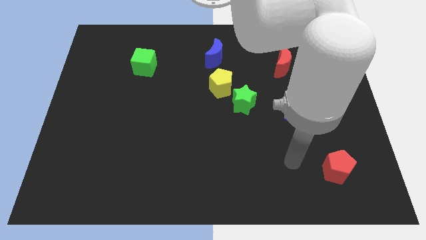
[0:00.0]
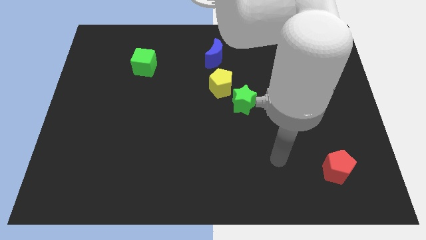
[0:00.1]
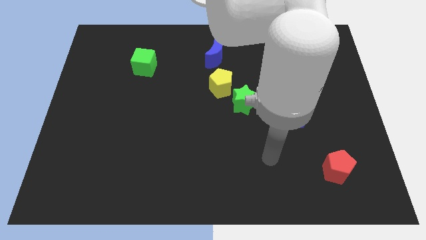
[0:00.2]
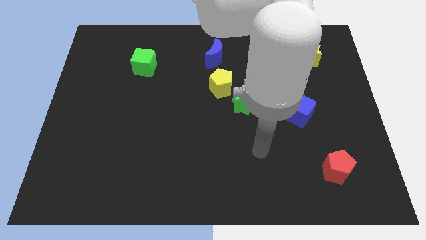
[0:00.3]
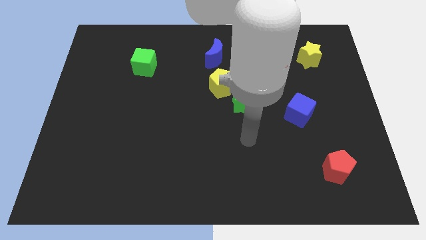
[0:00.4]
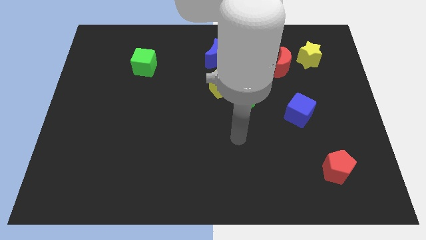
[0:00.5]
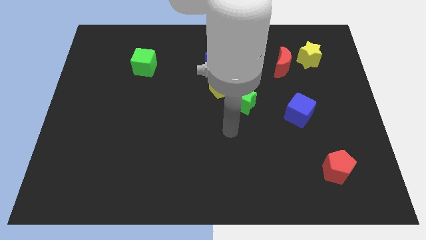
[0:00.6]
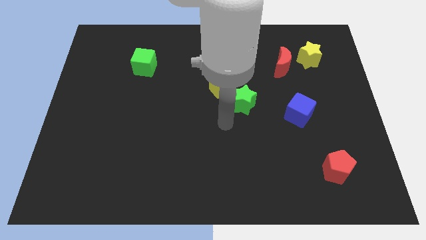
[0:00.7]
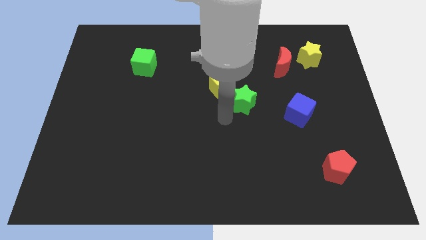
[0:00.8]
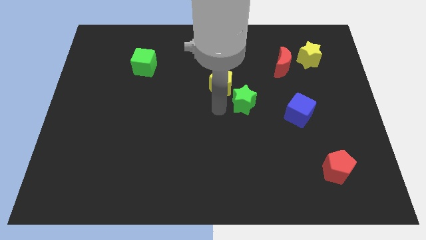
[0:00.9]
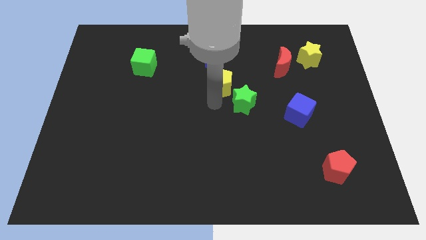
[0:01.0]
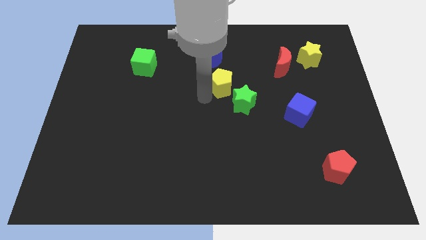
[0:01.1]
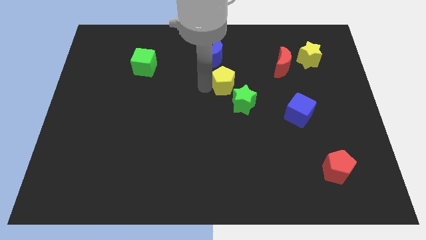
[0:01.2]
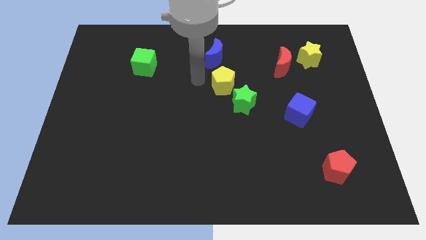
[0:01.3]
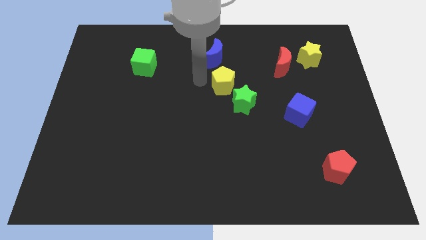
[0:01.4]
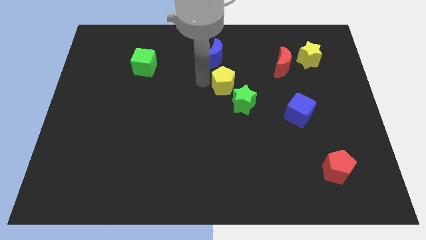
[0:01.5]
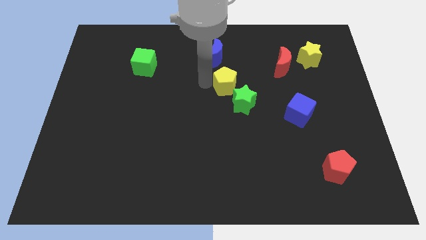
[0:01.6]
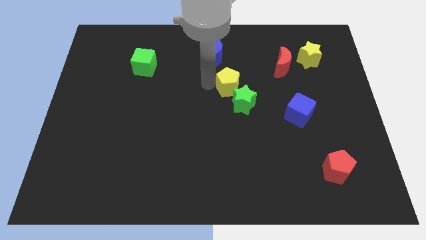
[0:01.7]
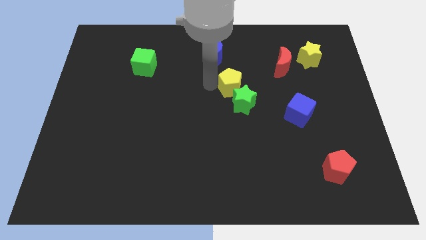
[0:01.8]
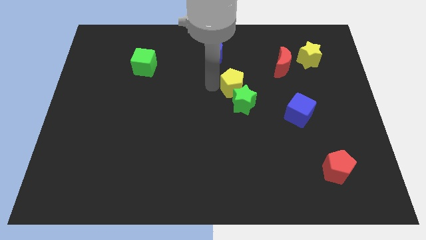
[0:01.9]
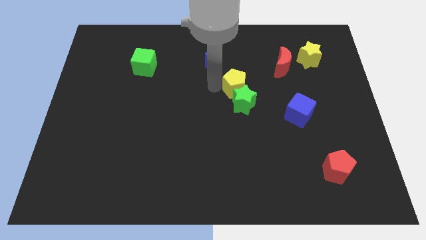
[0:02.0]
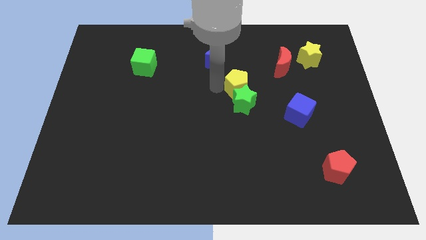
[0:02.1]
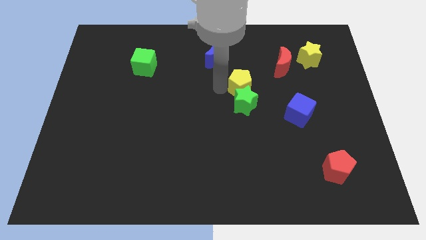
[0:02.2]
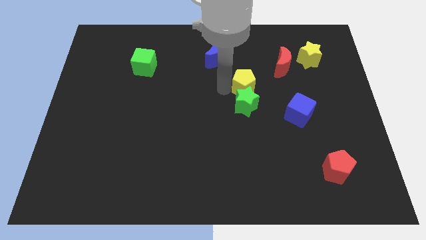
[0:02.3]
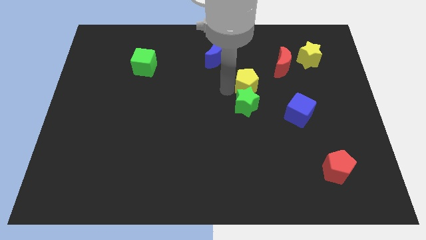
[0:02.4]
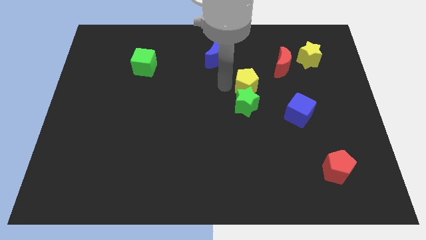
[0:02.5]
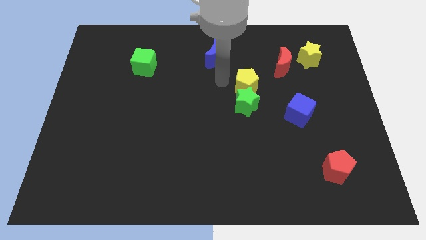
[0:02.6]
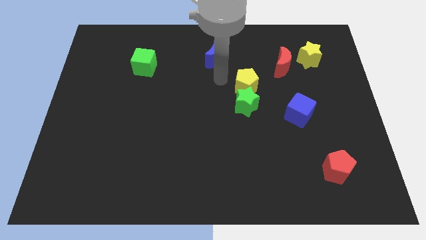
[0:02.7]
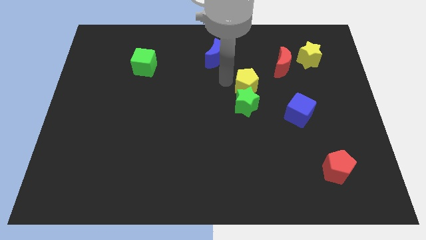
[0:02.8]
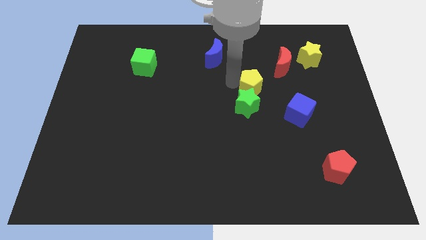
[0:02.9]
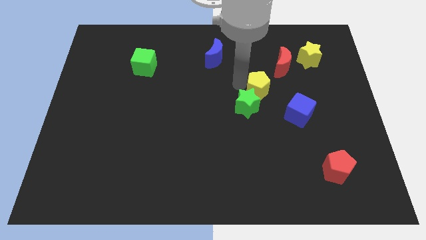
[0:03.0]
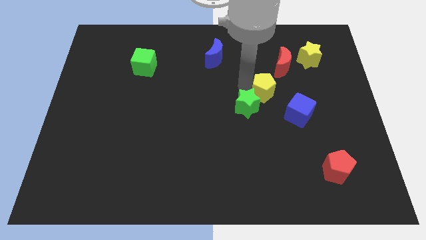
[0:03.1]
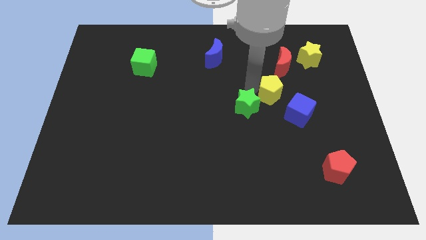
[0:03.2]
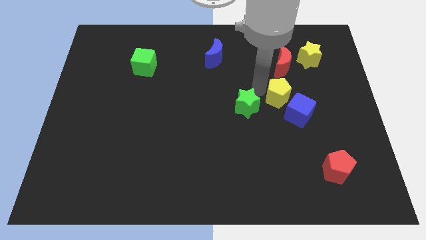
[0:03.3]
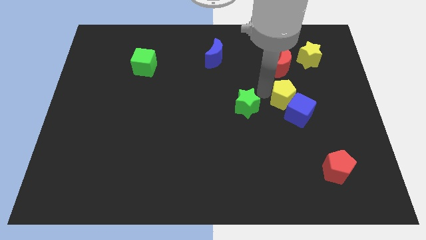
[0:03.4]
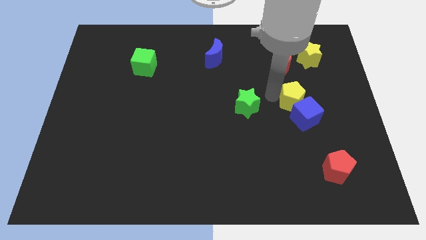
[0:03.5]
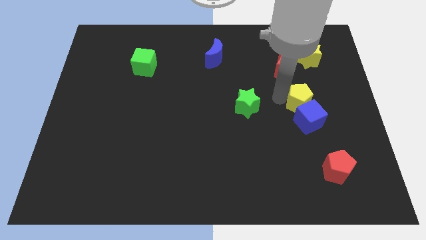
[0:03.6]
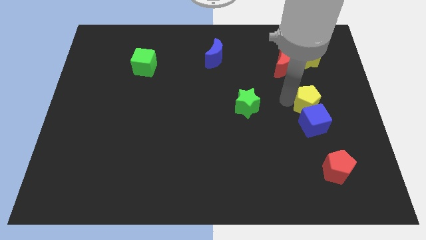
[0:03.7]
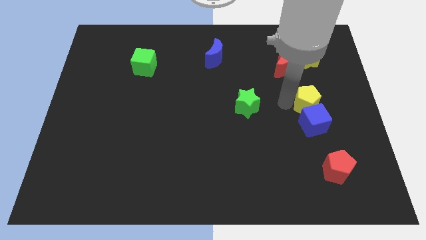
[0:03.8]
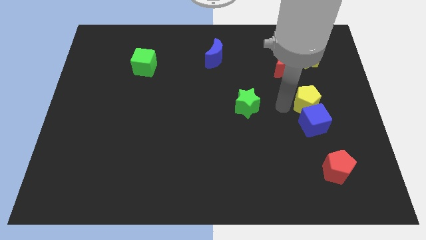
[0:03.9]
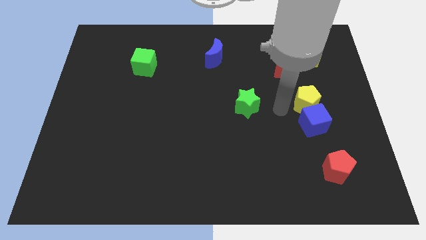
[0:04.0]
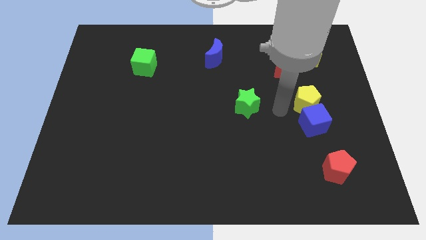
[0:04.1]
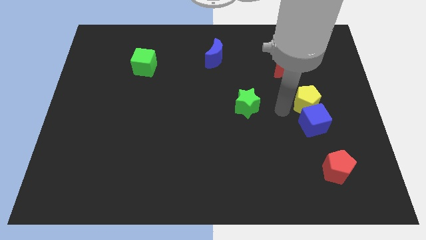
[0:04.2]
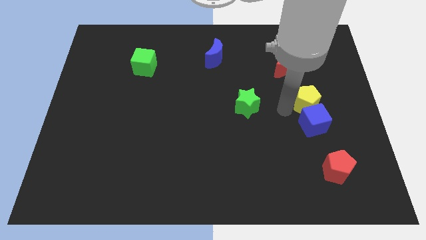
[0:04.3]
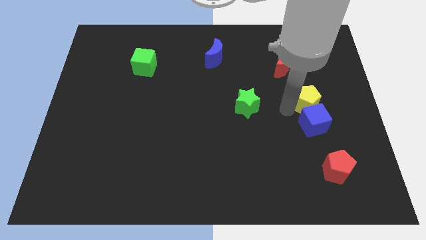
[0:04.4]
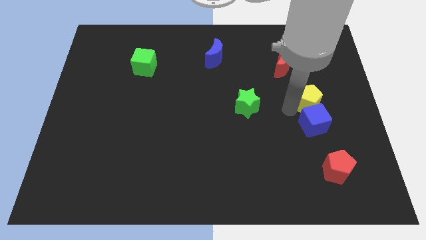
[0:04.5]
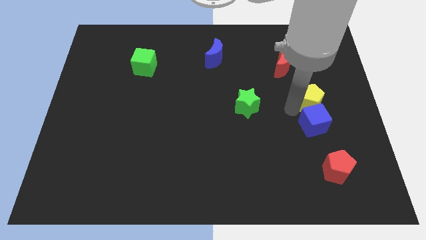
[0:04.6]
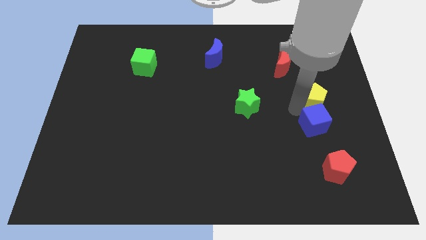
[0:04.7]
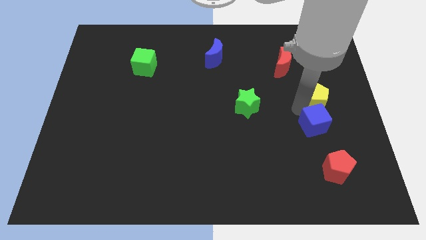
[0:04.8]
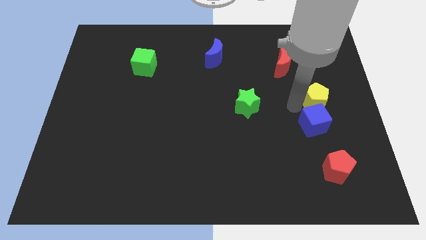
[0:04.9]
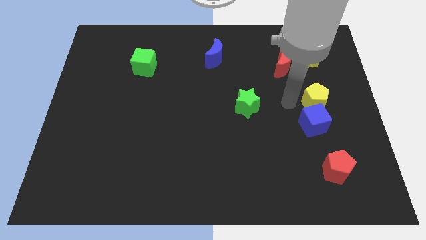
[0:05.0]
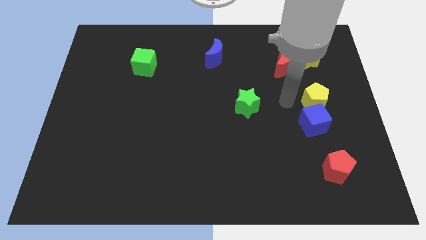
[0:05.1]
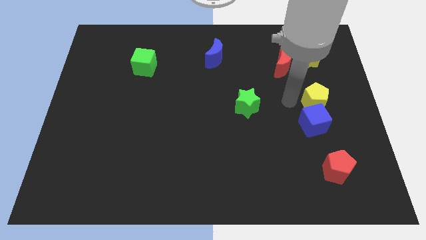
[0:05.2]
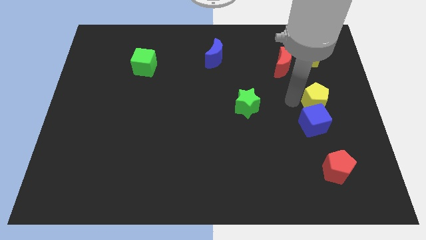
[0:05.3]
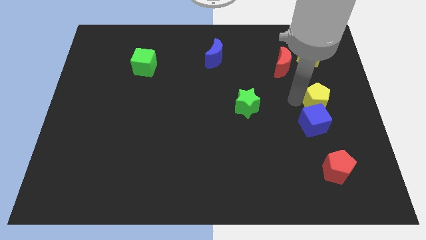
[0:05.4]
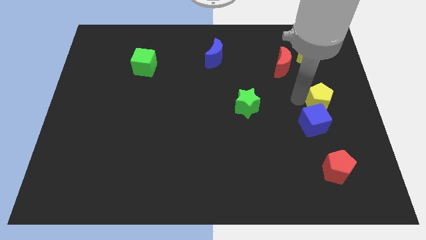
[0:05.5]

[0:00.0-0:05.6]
put the yellow pentagon to the right side of the board

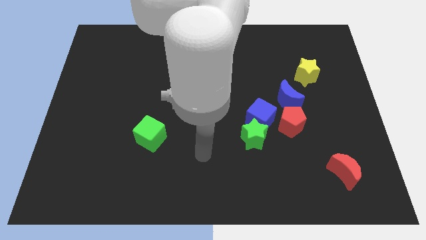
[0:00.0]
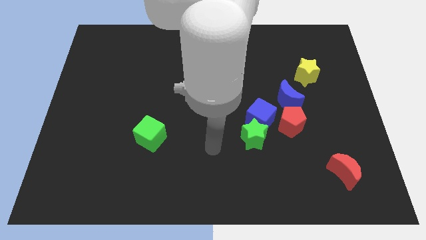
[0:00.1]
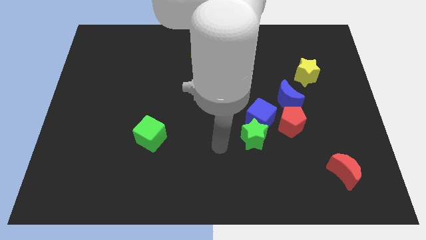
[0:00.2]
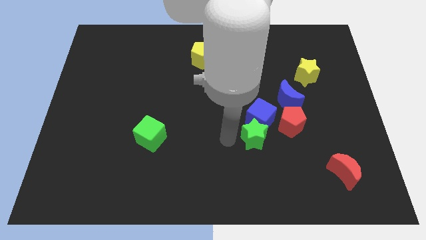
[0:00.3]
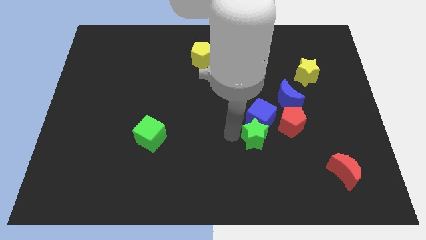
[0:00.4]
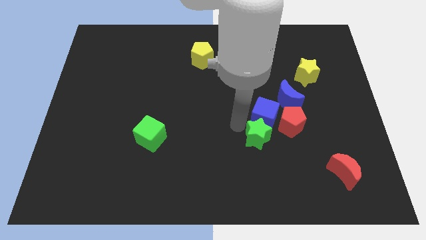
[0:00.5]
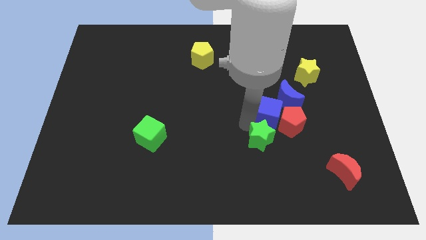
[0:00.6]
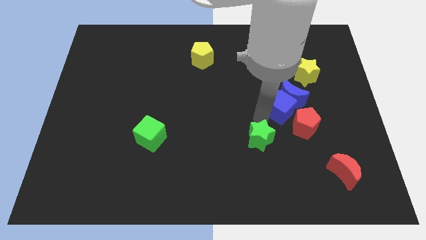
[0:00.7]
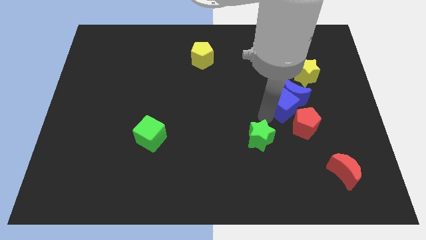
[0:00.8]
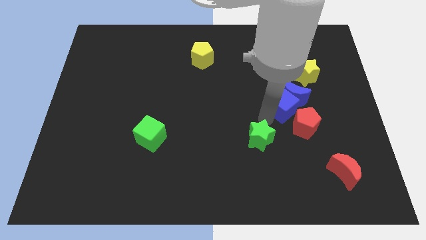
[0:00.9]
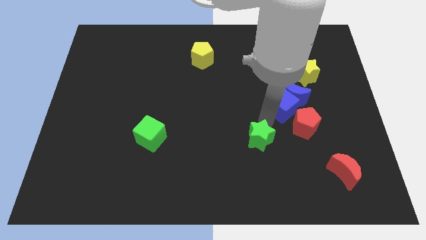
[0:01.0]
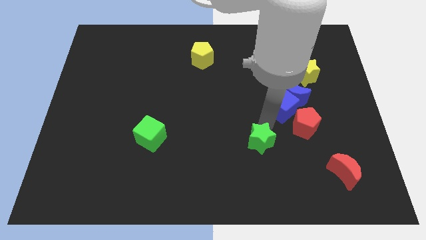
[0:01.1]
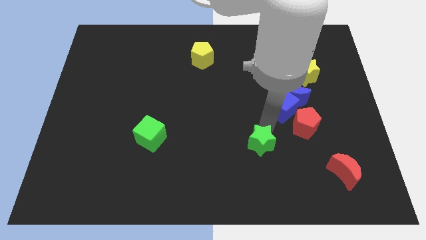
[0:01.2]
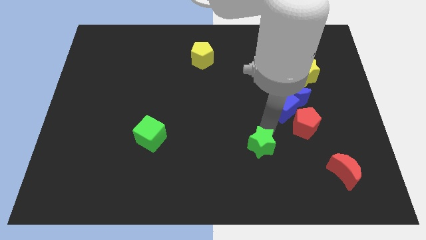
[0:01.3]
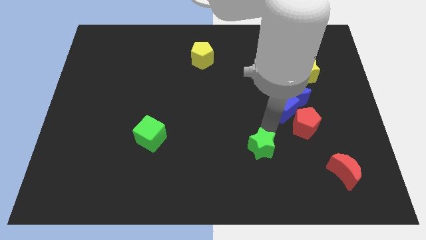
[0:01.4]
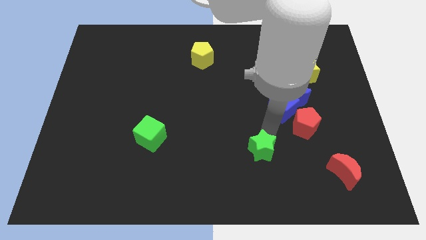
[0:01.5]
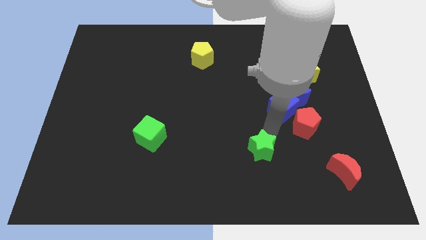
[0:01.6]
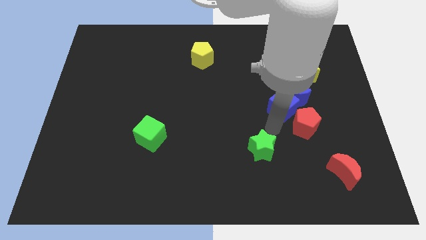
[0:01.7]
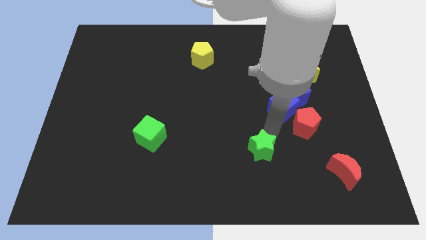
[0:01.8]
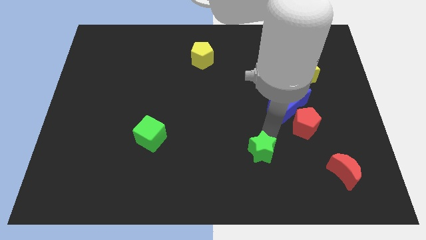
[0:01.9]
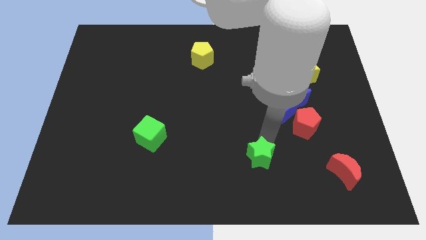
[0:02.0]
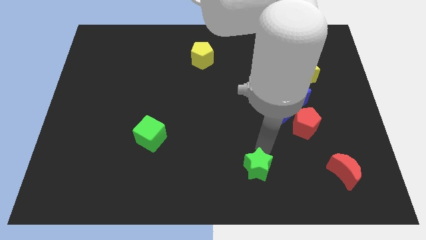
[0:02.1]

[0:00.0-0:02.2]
push the green star to the bottom side
